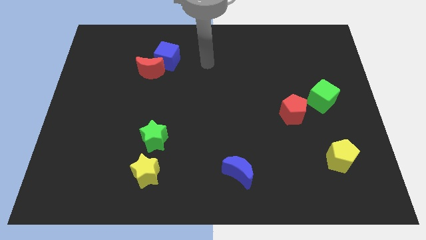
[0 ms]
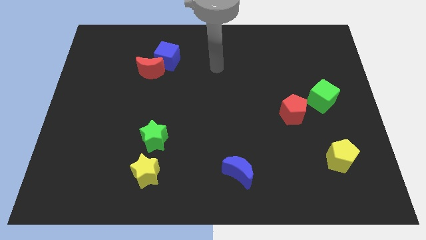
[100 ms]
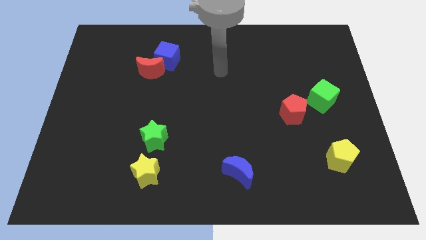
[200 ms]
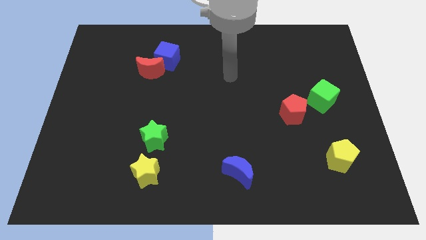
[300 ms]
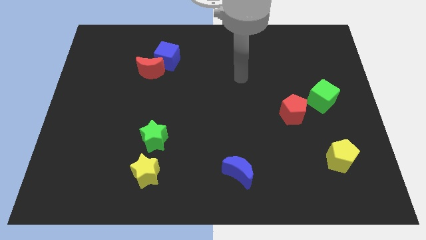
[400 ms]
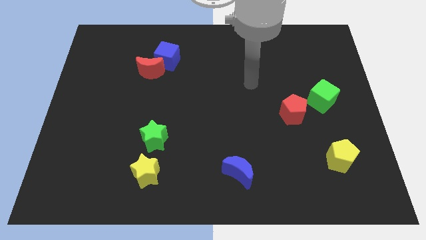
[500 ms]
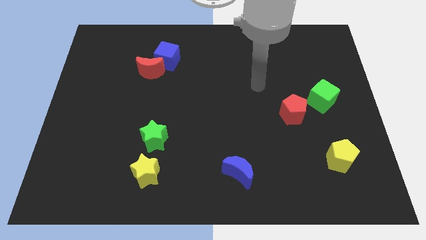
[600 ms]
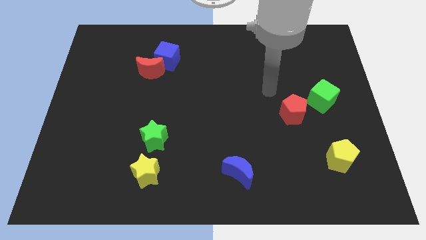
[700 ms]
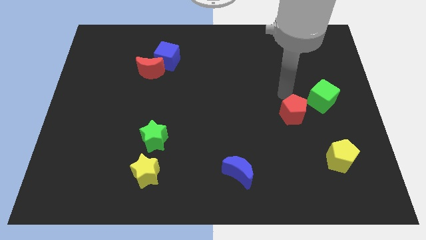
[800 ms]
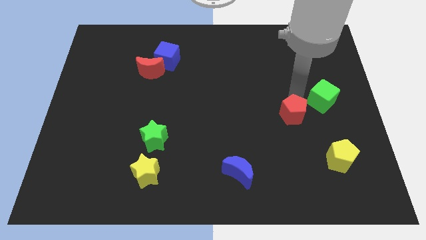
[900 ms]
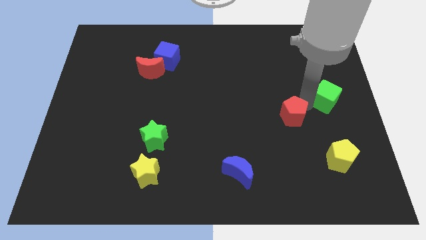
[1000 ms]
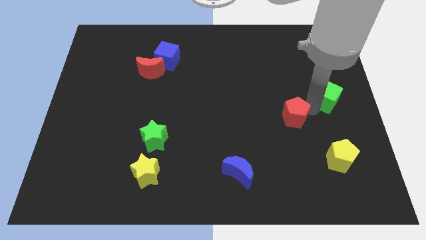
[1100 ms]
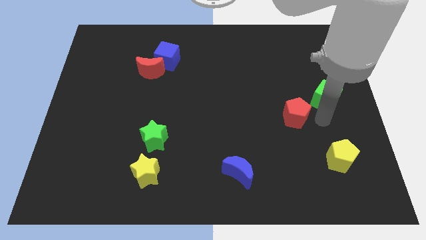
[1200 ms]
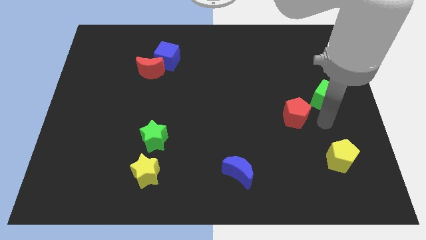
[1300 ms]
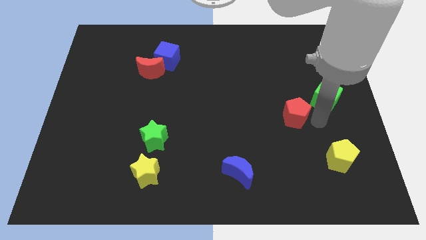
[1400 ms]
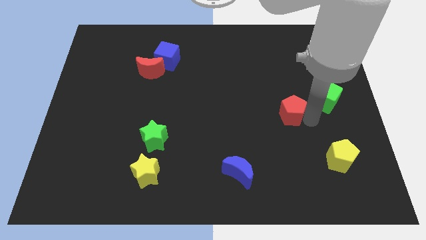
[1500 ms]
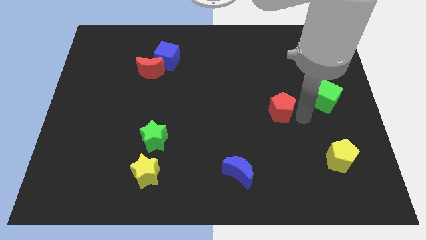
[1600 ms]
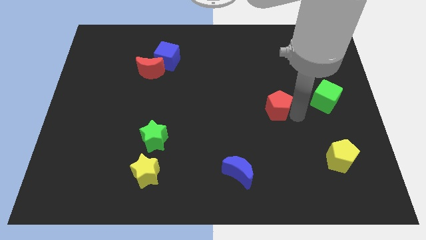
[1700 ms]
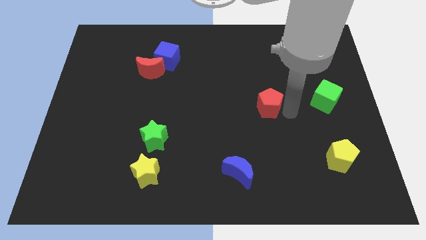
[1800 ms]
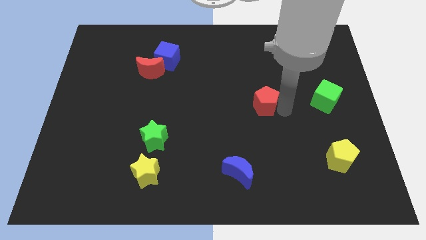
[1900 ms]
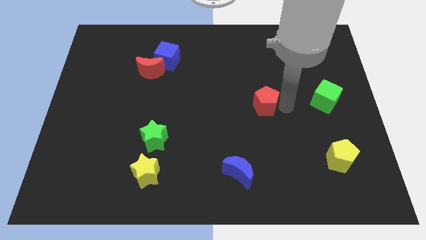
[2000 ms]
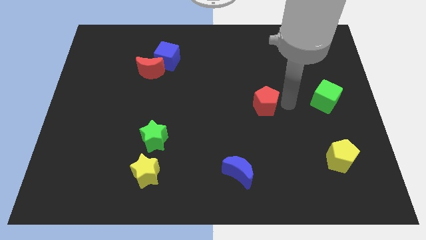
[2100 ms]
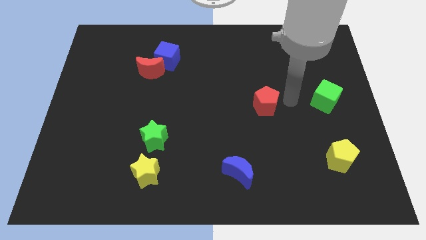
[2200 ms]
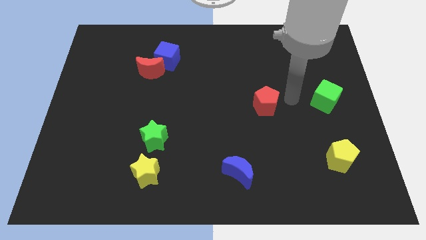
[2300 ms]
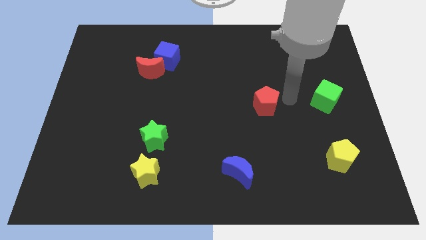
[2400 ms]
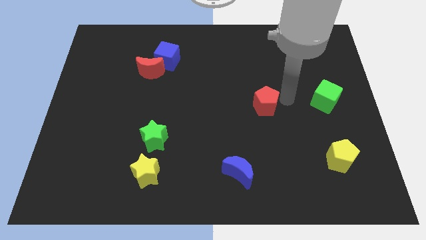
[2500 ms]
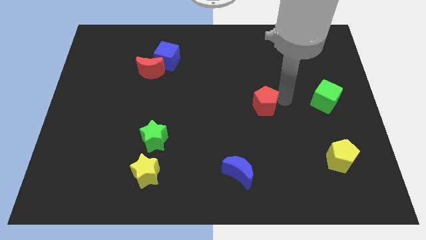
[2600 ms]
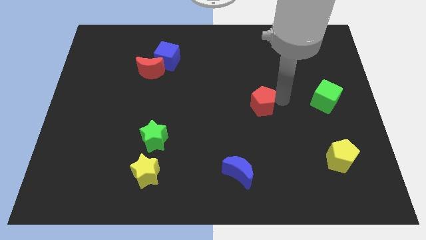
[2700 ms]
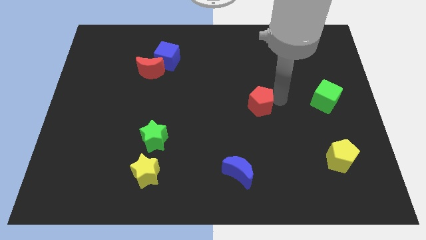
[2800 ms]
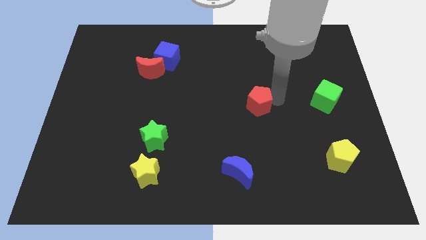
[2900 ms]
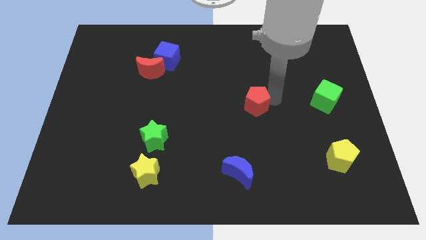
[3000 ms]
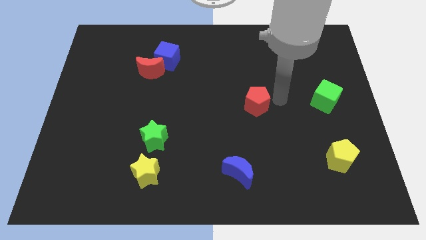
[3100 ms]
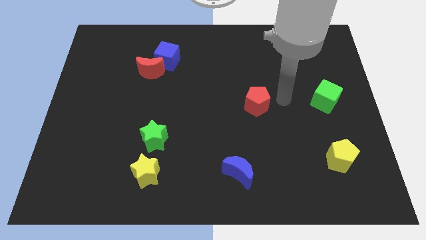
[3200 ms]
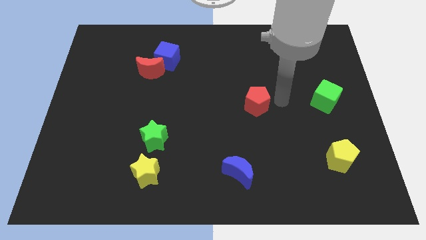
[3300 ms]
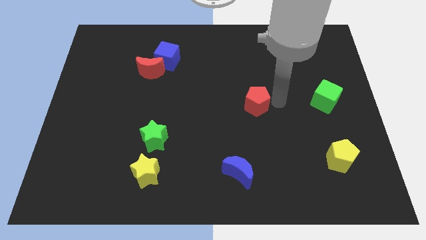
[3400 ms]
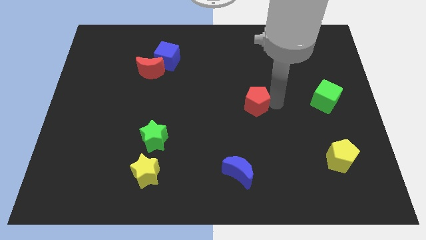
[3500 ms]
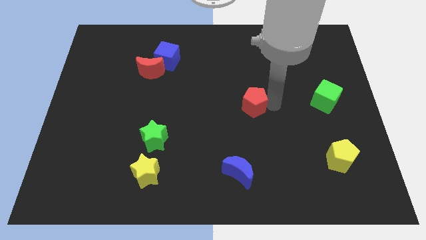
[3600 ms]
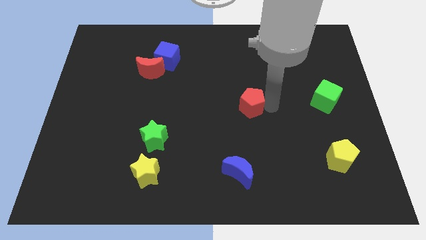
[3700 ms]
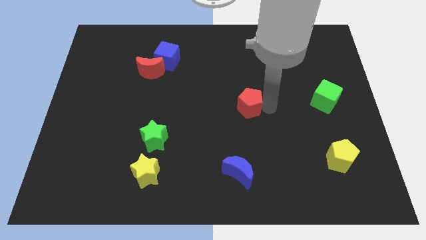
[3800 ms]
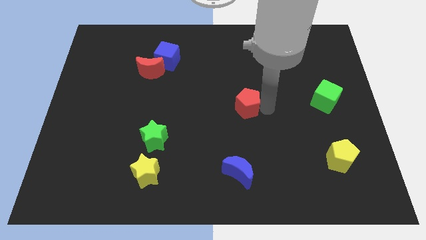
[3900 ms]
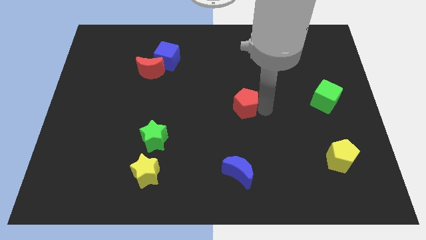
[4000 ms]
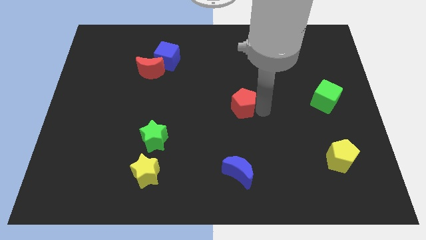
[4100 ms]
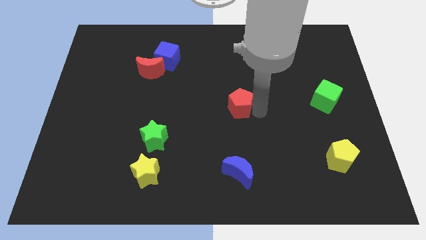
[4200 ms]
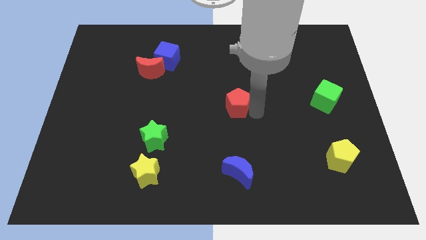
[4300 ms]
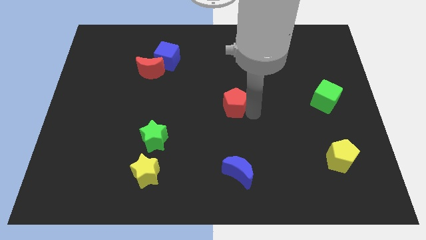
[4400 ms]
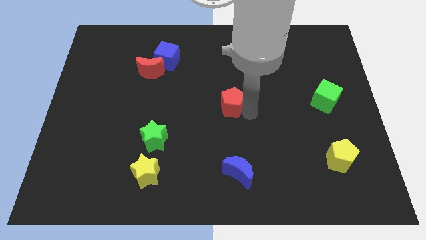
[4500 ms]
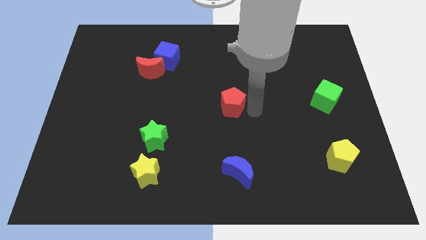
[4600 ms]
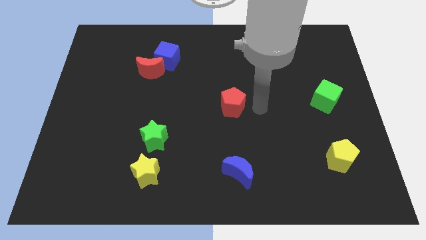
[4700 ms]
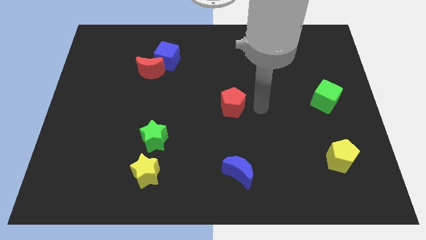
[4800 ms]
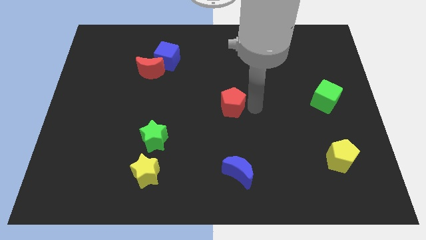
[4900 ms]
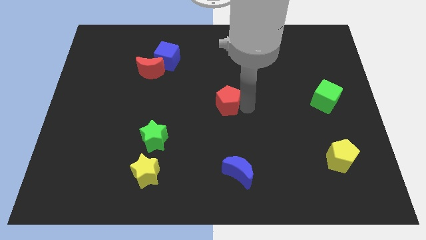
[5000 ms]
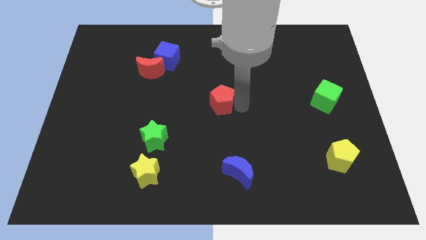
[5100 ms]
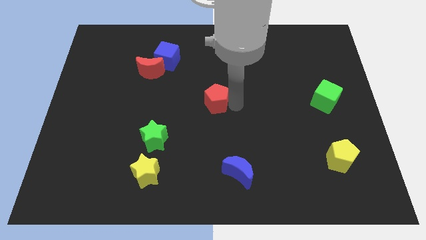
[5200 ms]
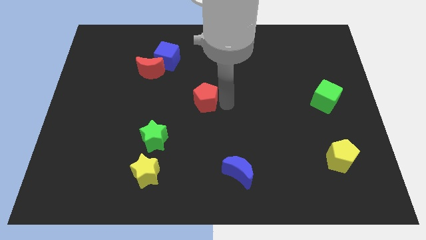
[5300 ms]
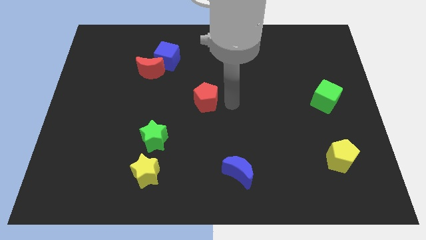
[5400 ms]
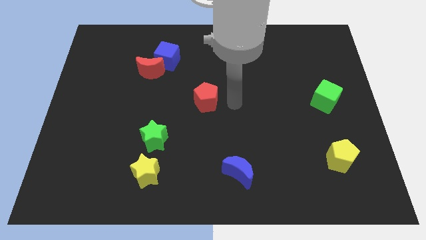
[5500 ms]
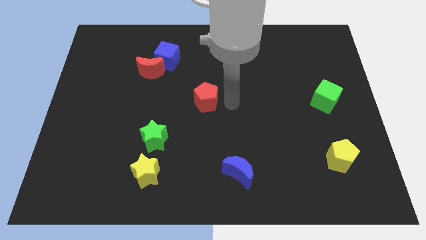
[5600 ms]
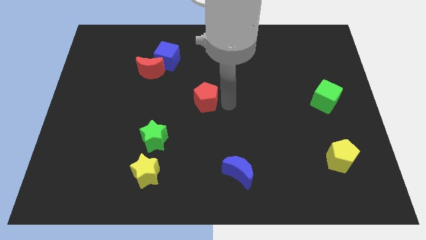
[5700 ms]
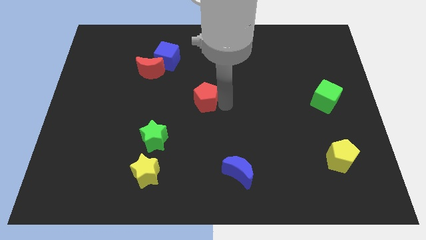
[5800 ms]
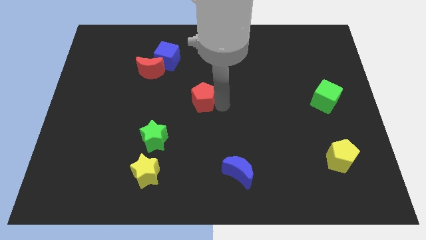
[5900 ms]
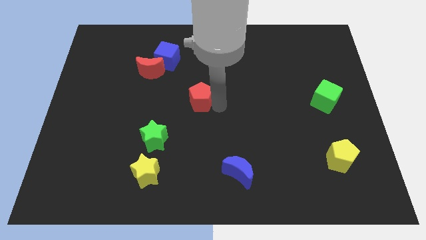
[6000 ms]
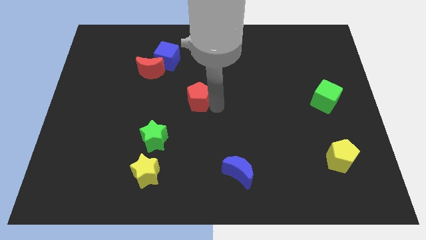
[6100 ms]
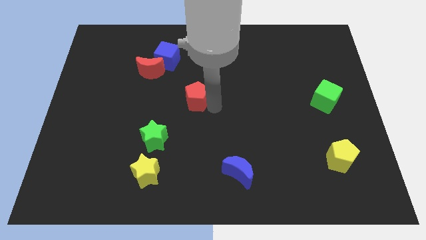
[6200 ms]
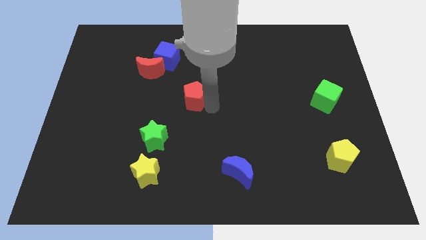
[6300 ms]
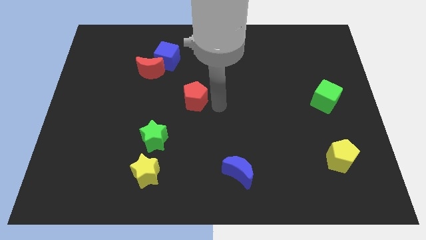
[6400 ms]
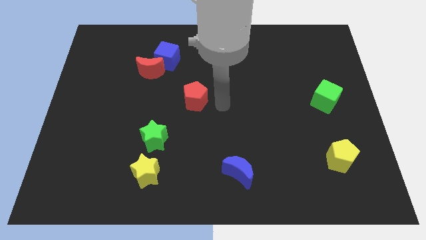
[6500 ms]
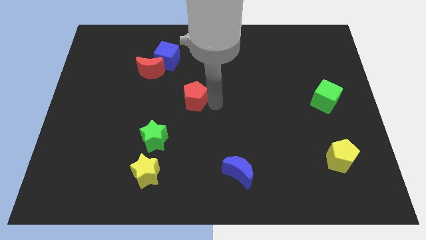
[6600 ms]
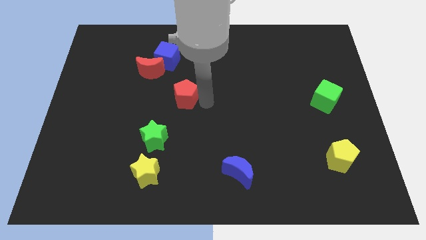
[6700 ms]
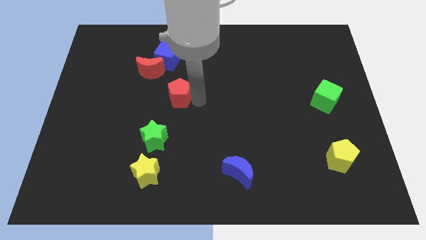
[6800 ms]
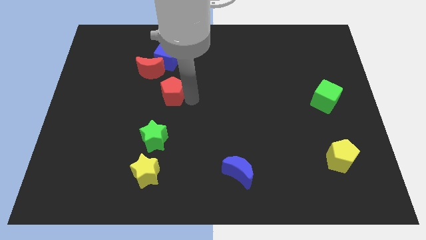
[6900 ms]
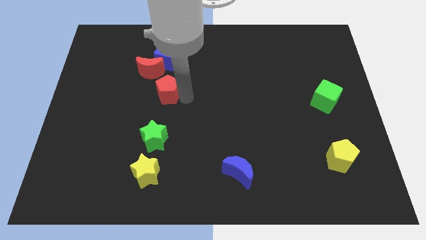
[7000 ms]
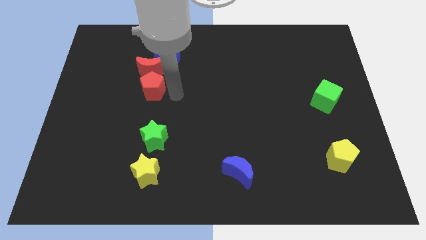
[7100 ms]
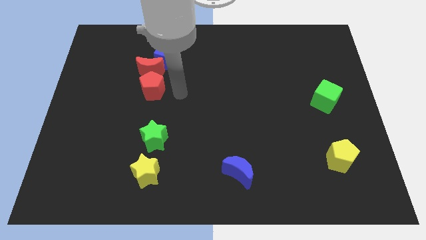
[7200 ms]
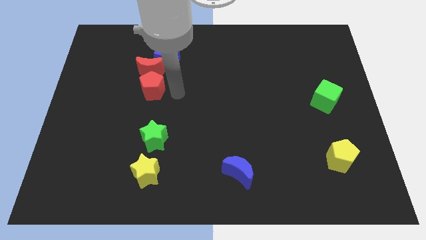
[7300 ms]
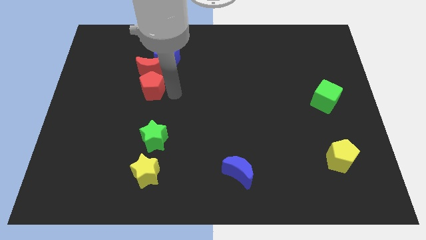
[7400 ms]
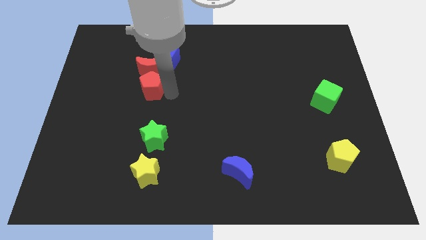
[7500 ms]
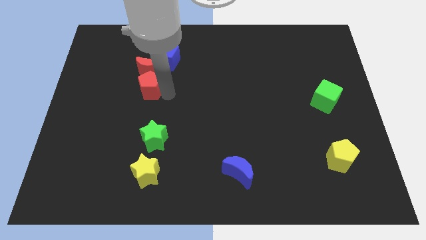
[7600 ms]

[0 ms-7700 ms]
move the red pentagon diagonally down and to the left of the red moon
